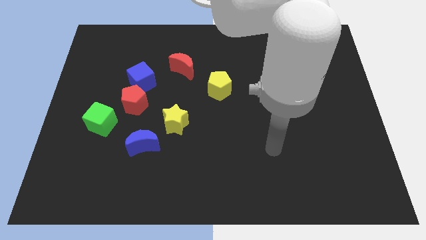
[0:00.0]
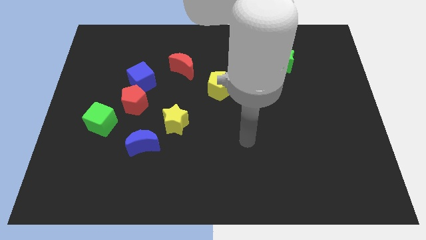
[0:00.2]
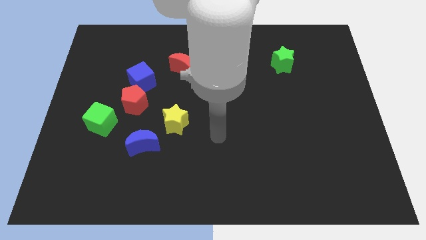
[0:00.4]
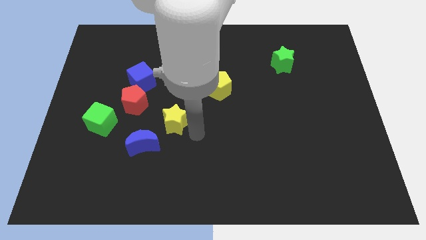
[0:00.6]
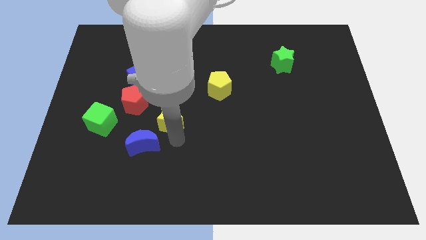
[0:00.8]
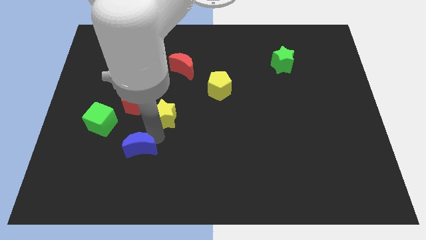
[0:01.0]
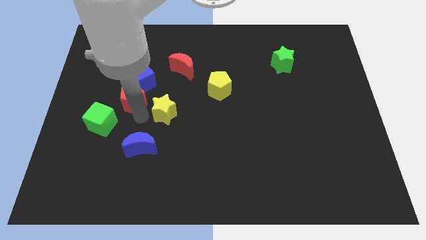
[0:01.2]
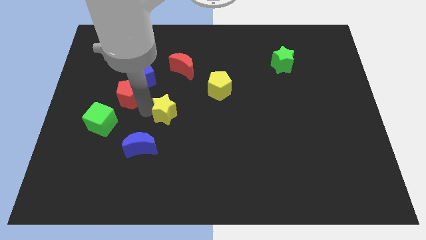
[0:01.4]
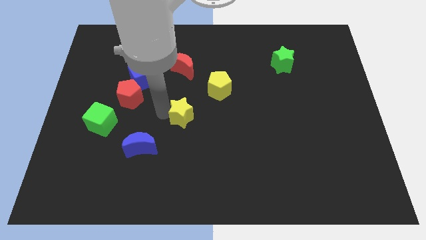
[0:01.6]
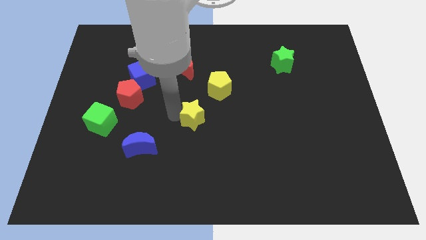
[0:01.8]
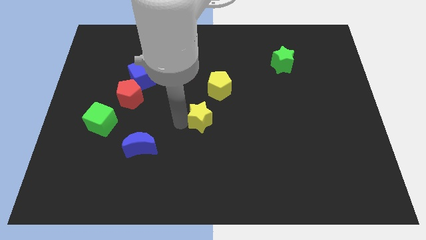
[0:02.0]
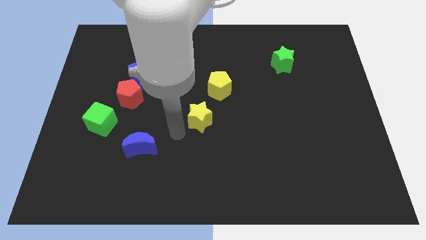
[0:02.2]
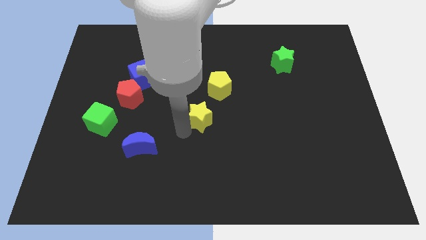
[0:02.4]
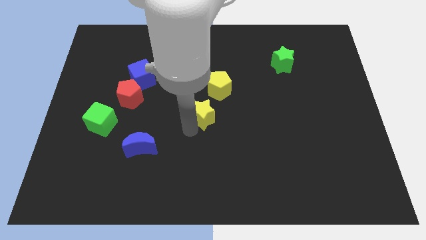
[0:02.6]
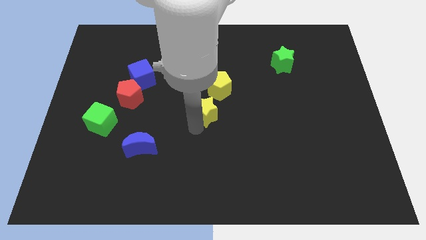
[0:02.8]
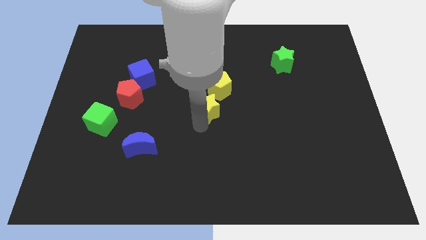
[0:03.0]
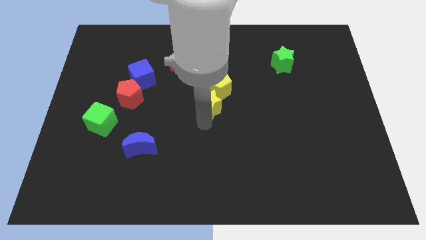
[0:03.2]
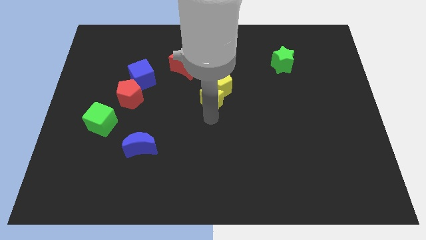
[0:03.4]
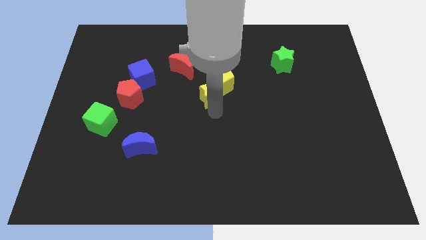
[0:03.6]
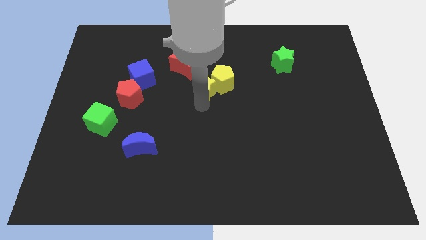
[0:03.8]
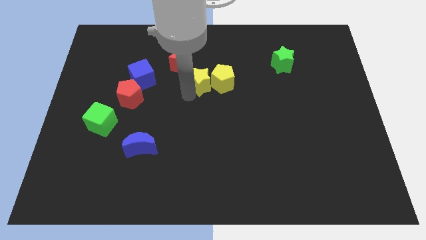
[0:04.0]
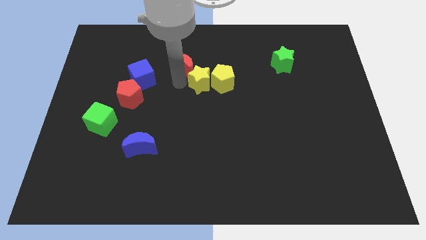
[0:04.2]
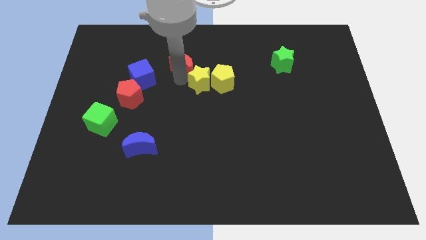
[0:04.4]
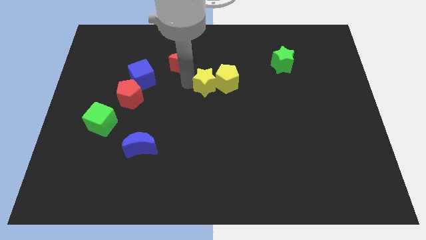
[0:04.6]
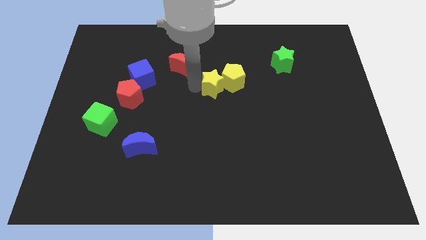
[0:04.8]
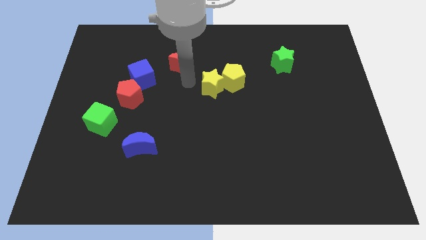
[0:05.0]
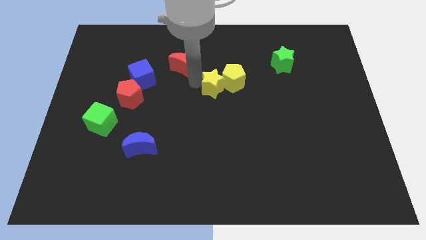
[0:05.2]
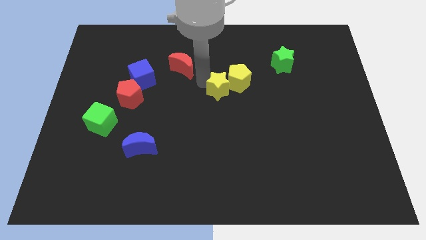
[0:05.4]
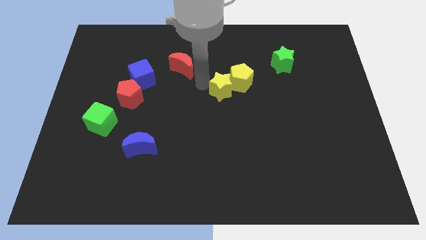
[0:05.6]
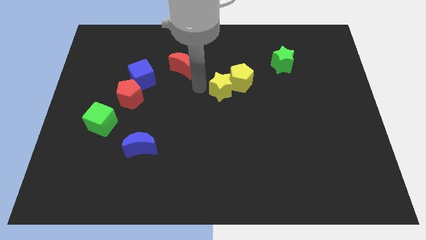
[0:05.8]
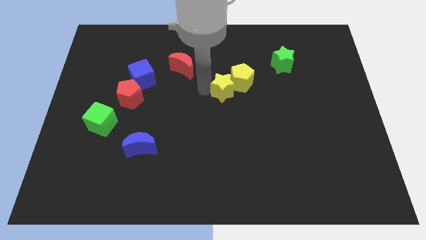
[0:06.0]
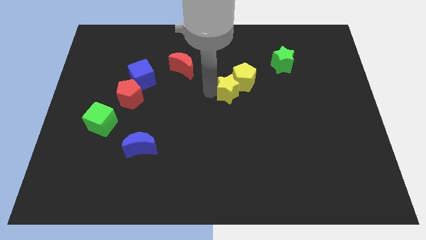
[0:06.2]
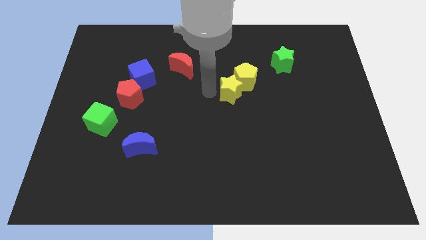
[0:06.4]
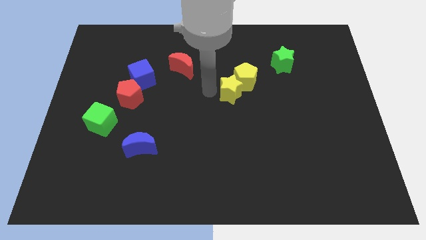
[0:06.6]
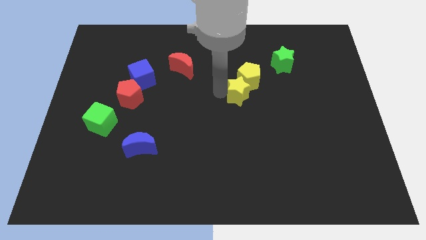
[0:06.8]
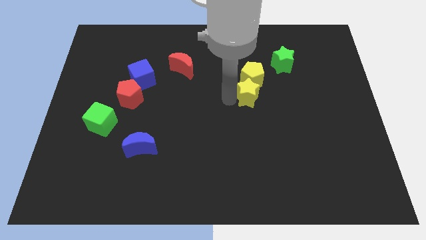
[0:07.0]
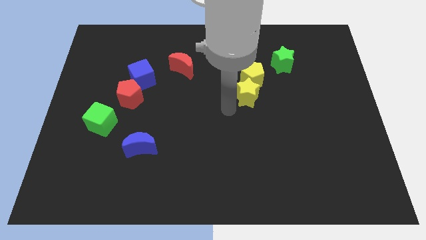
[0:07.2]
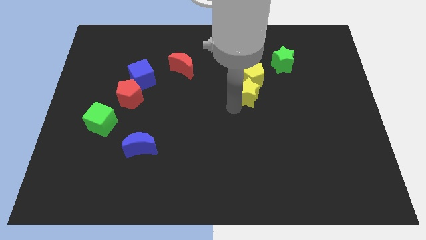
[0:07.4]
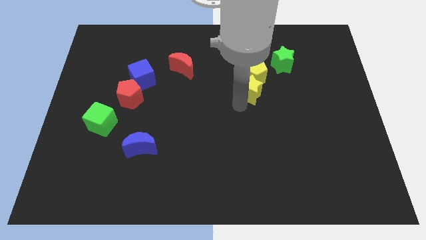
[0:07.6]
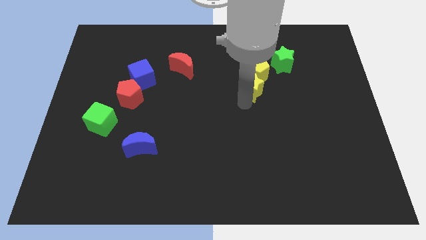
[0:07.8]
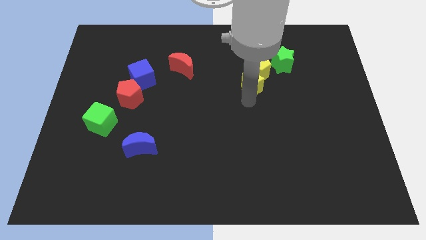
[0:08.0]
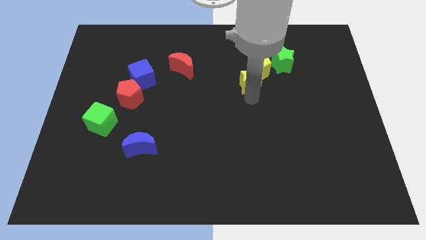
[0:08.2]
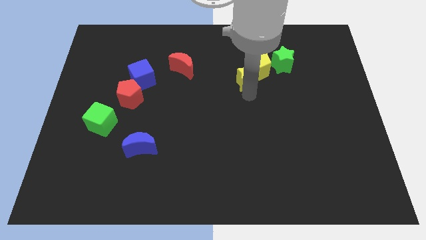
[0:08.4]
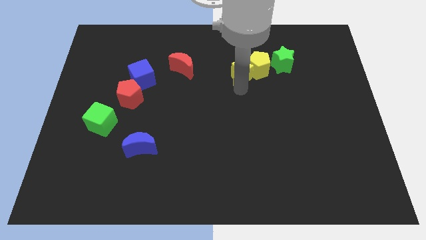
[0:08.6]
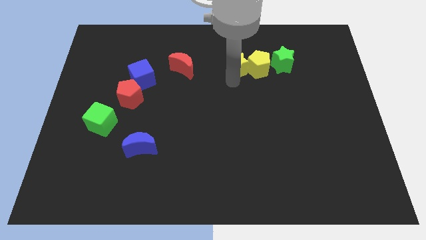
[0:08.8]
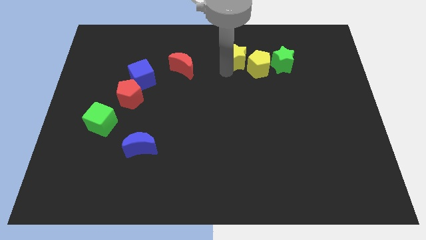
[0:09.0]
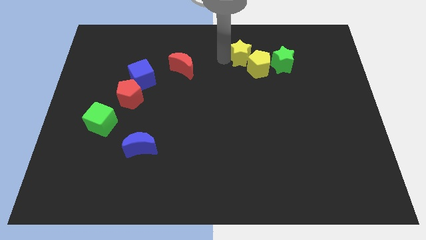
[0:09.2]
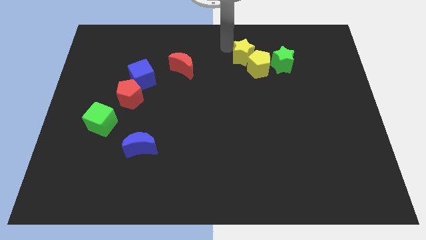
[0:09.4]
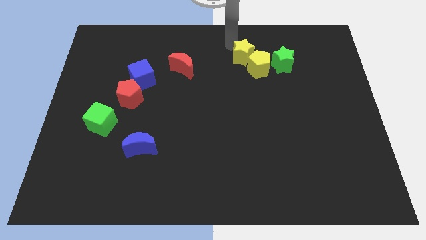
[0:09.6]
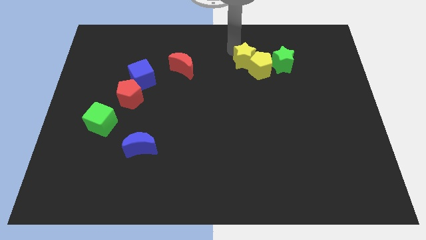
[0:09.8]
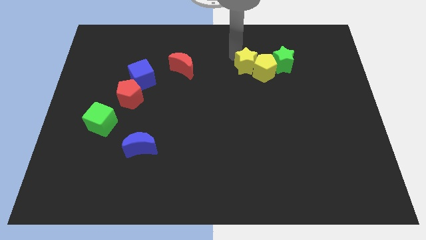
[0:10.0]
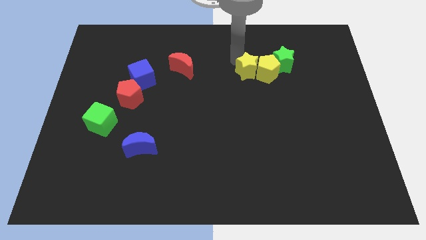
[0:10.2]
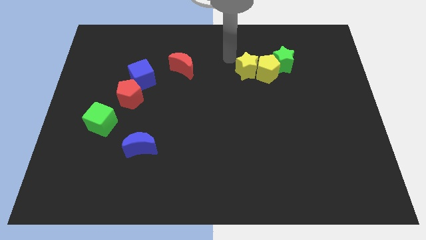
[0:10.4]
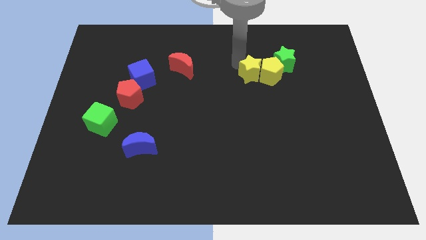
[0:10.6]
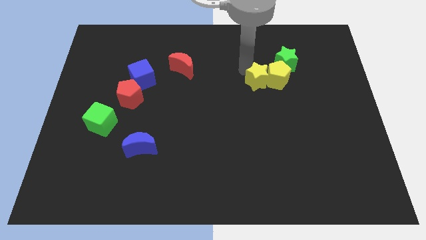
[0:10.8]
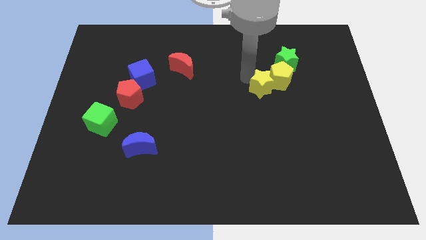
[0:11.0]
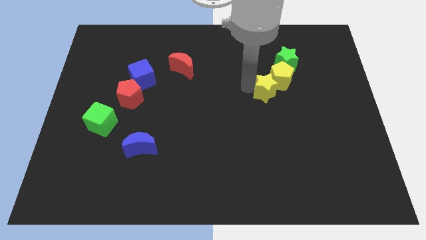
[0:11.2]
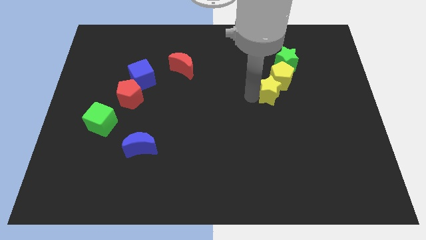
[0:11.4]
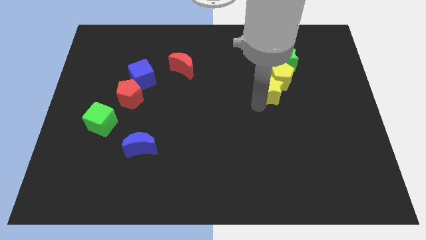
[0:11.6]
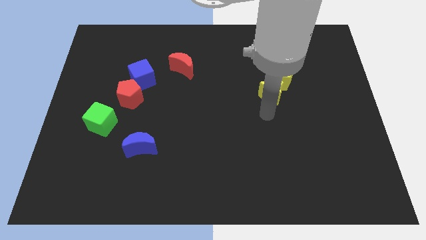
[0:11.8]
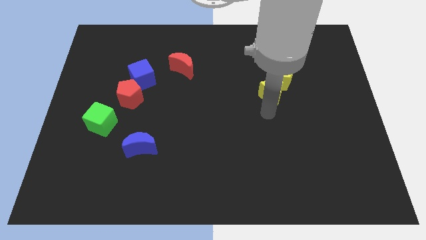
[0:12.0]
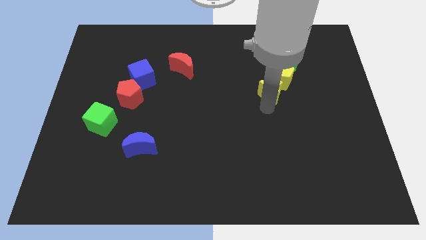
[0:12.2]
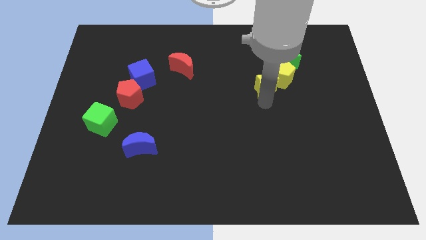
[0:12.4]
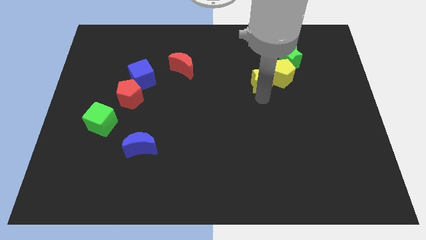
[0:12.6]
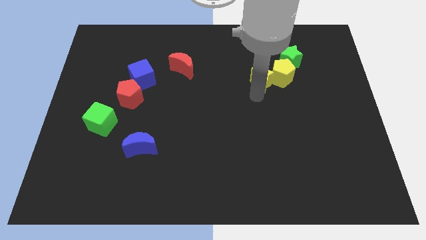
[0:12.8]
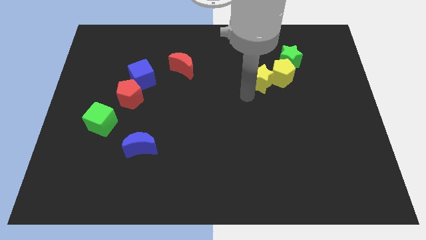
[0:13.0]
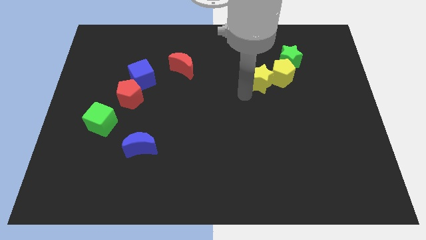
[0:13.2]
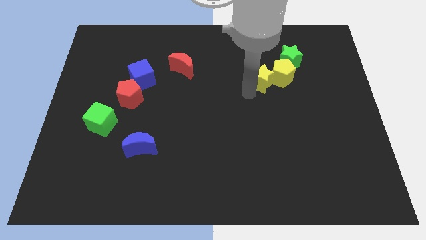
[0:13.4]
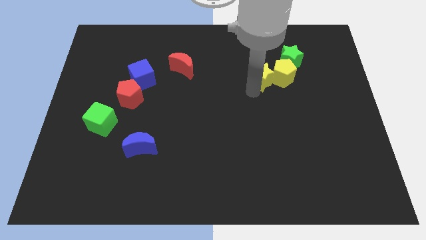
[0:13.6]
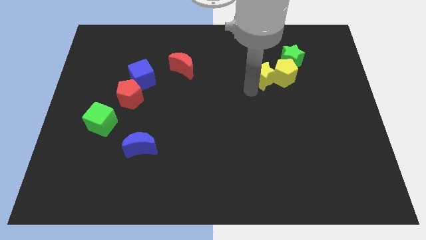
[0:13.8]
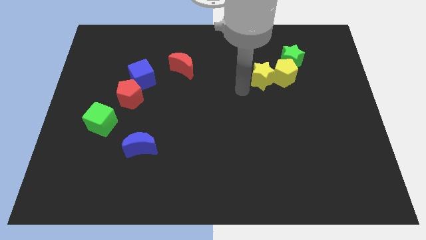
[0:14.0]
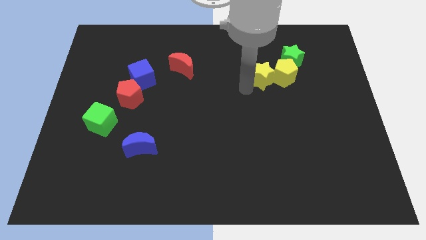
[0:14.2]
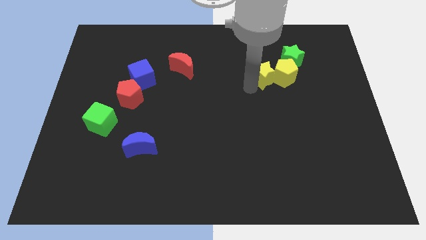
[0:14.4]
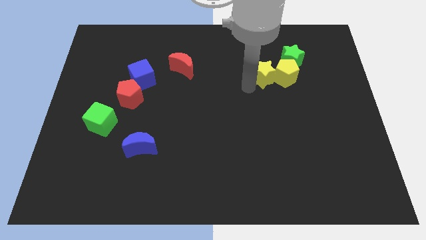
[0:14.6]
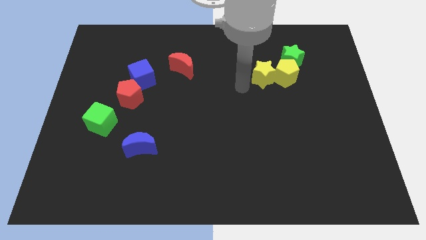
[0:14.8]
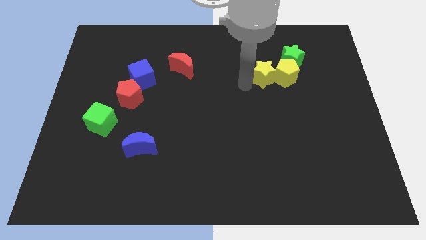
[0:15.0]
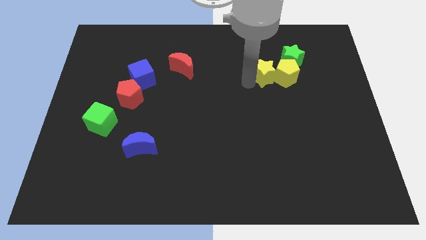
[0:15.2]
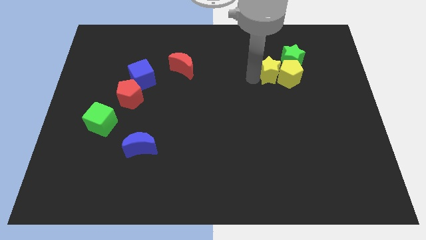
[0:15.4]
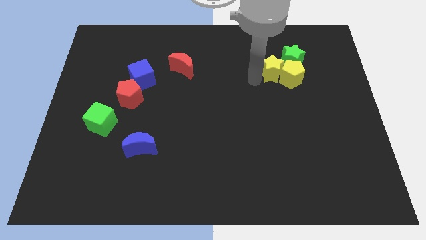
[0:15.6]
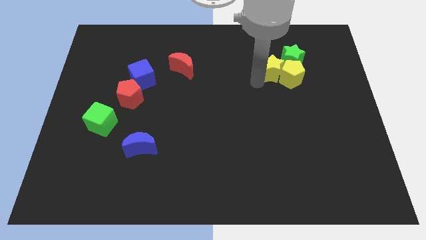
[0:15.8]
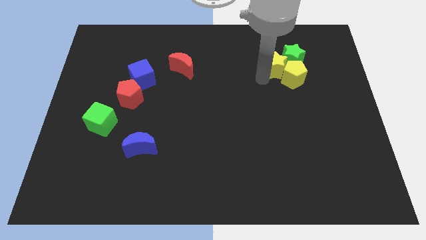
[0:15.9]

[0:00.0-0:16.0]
move the yellow star to the green star
